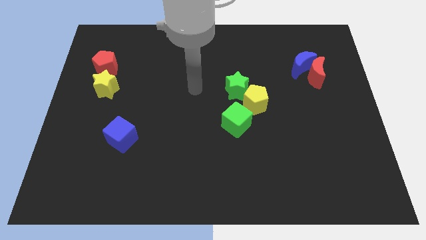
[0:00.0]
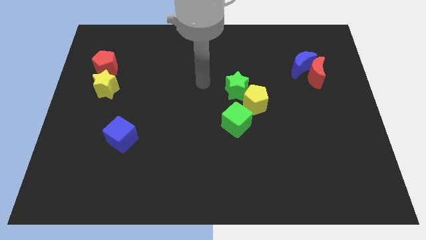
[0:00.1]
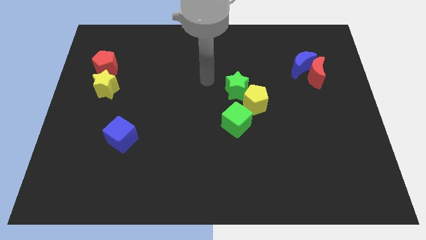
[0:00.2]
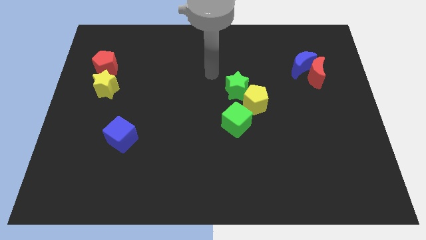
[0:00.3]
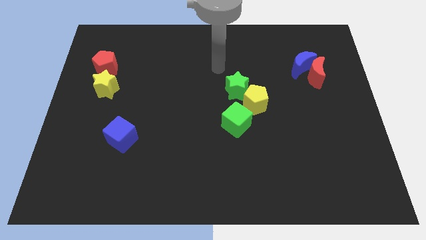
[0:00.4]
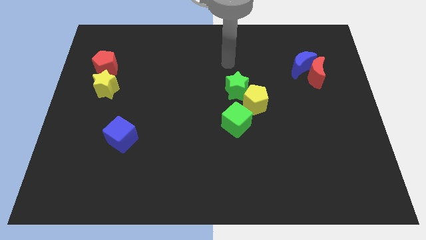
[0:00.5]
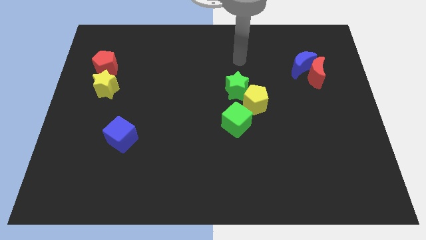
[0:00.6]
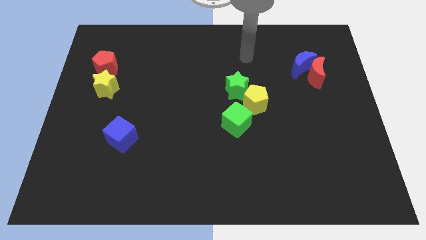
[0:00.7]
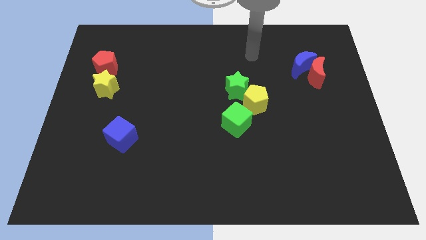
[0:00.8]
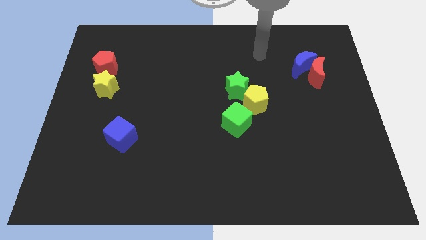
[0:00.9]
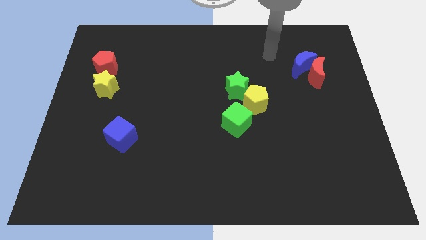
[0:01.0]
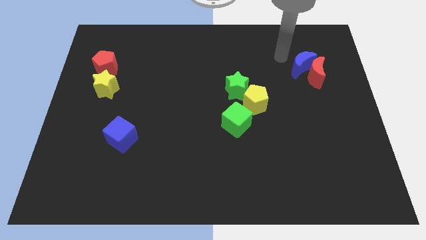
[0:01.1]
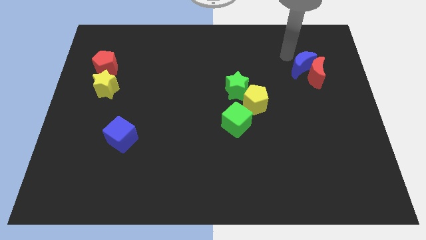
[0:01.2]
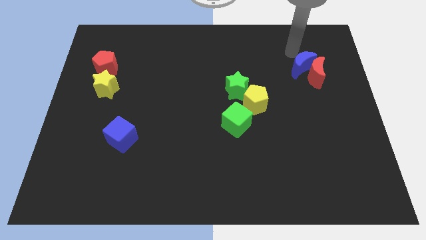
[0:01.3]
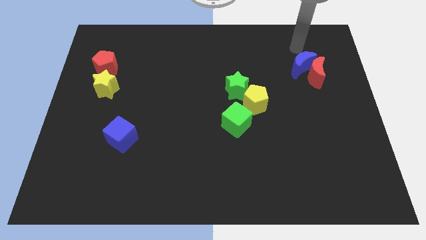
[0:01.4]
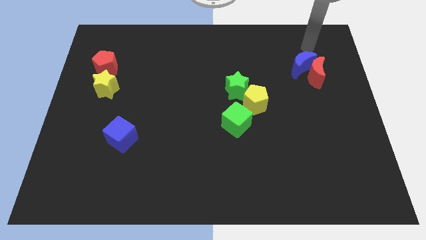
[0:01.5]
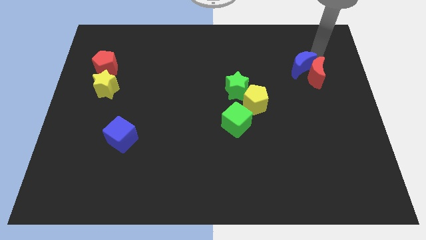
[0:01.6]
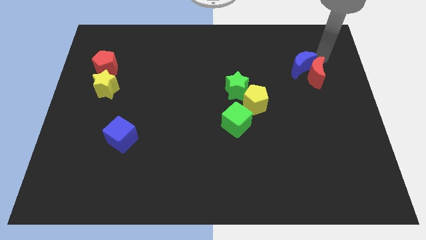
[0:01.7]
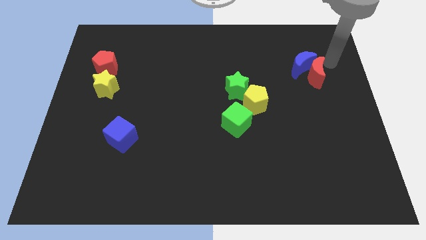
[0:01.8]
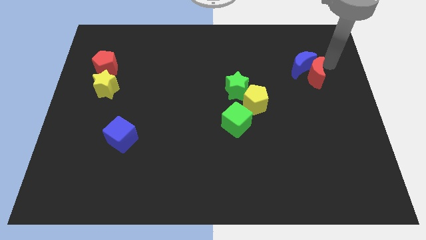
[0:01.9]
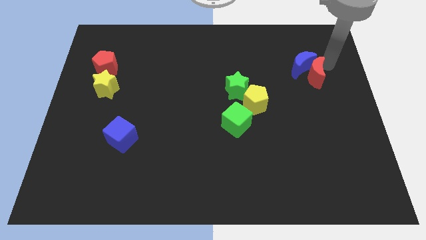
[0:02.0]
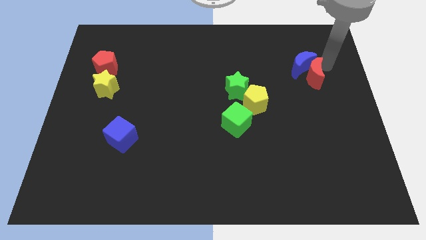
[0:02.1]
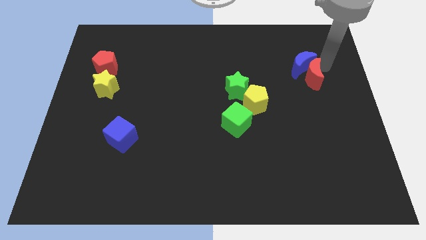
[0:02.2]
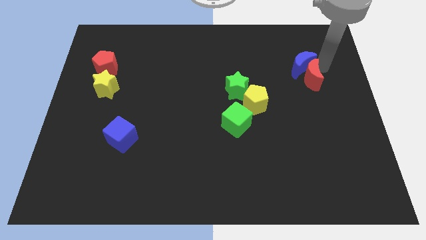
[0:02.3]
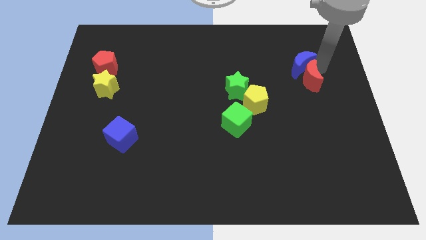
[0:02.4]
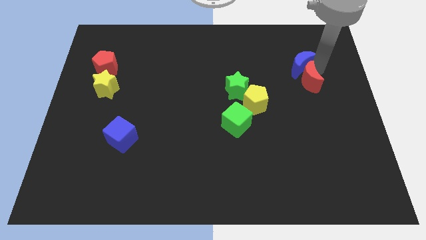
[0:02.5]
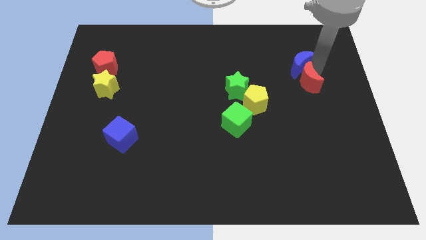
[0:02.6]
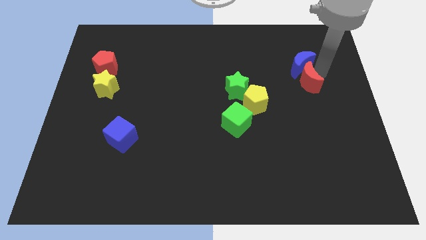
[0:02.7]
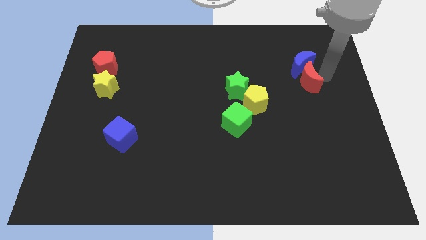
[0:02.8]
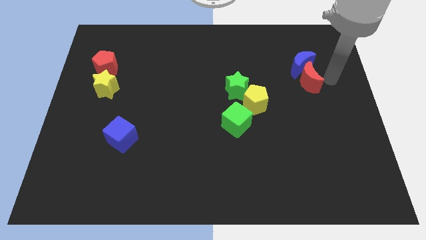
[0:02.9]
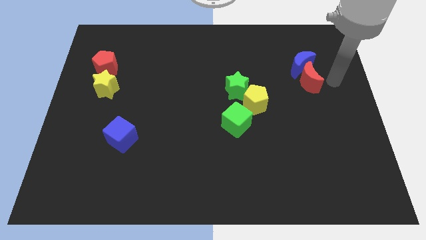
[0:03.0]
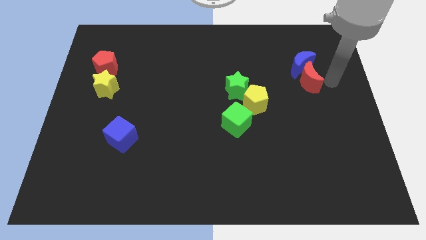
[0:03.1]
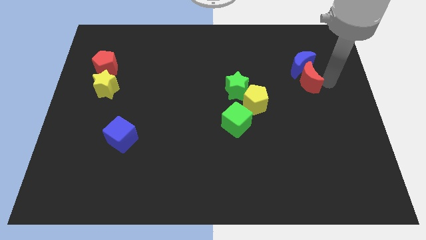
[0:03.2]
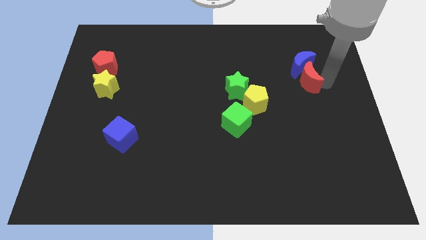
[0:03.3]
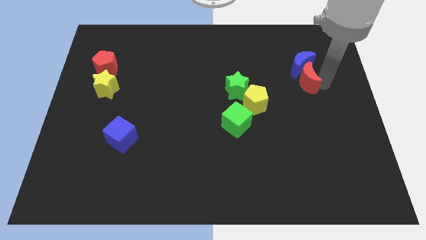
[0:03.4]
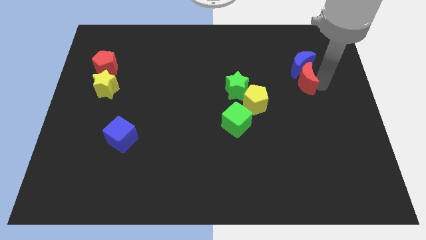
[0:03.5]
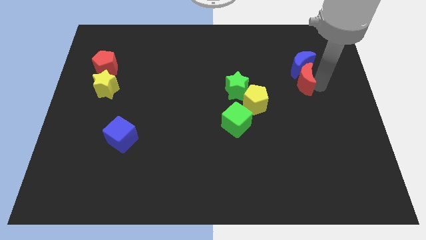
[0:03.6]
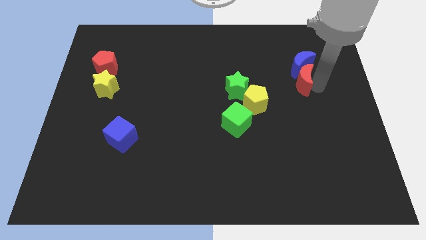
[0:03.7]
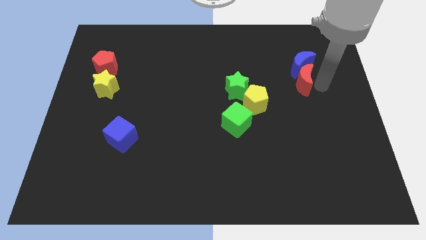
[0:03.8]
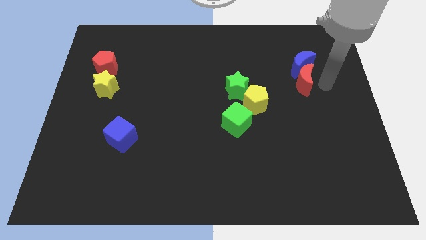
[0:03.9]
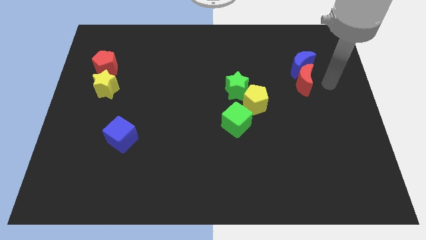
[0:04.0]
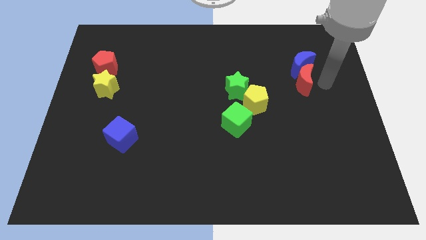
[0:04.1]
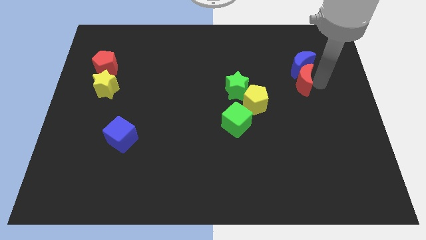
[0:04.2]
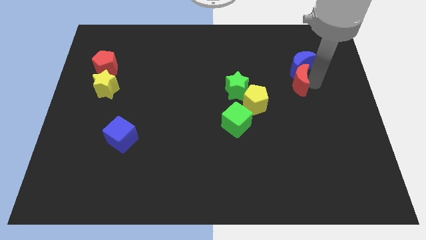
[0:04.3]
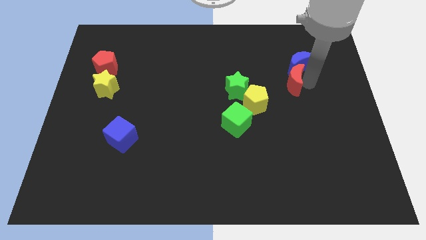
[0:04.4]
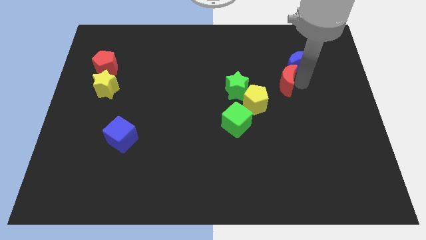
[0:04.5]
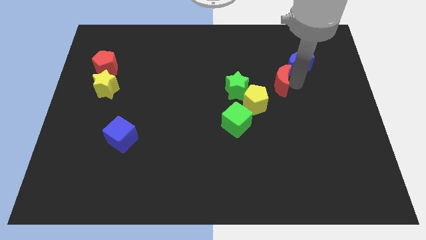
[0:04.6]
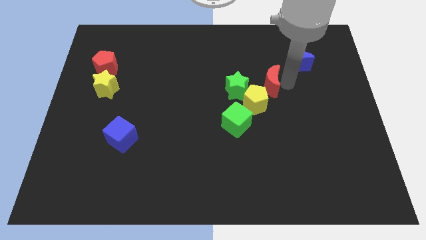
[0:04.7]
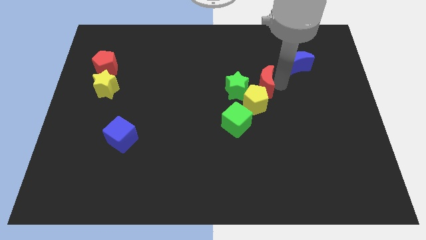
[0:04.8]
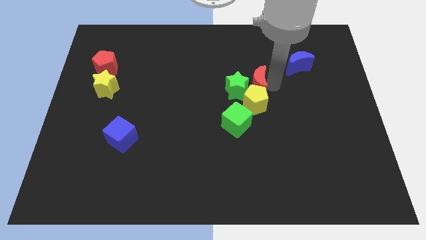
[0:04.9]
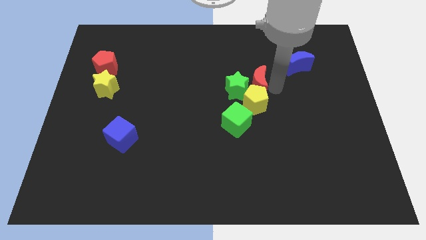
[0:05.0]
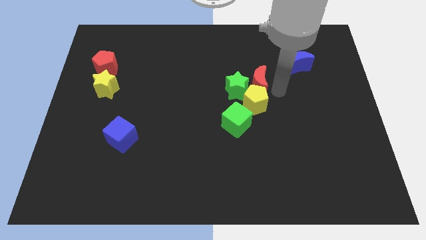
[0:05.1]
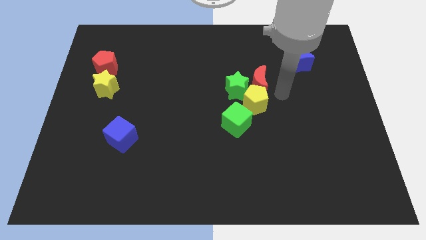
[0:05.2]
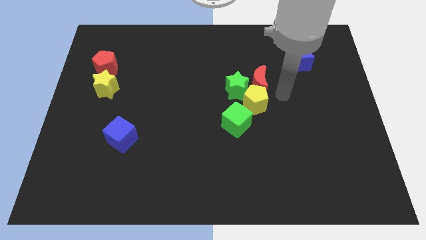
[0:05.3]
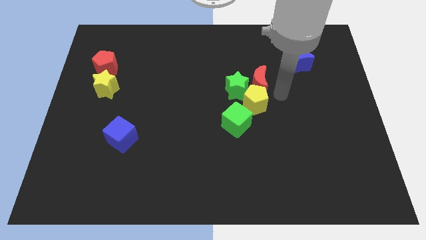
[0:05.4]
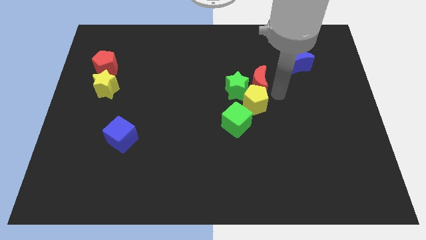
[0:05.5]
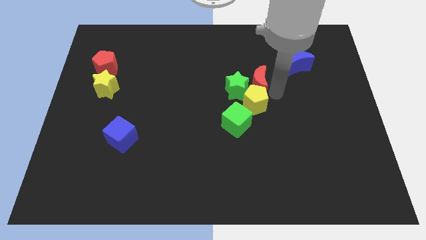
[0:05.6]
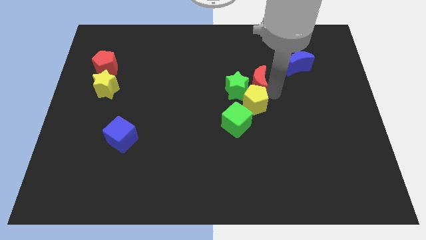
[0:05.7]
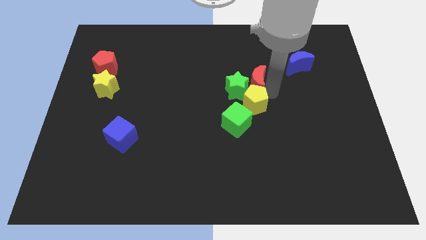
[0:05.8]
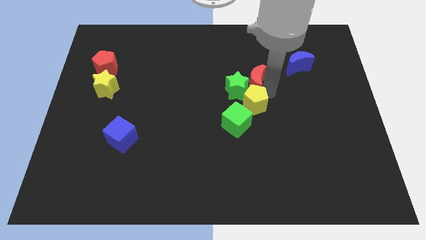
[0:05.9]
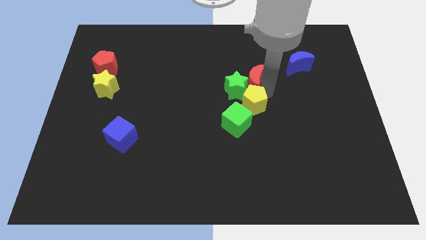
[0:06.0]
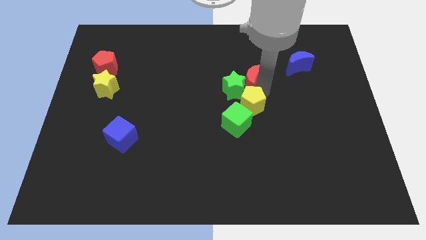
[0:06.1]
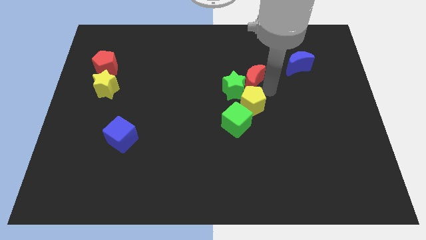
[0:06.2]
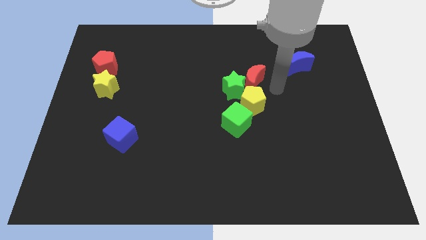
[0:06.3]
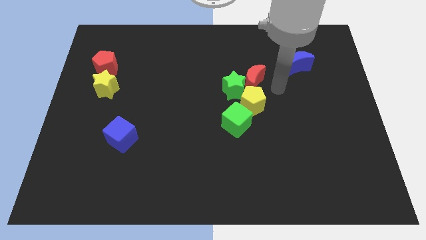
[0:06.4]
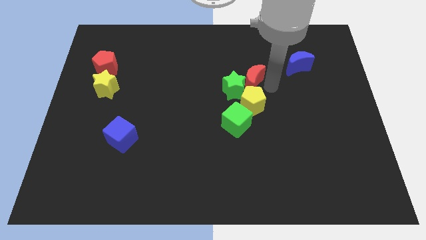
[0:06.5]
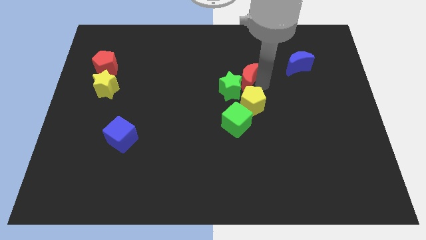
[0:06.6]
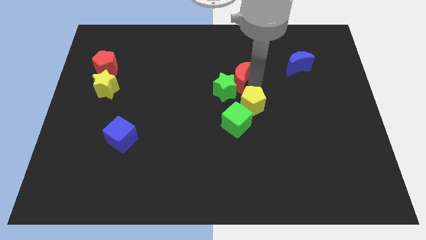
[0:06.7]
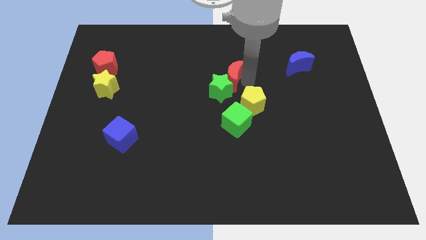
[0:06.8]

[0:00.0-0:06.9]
move the red moon left

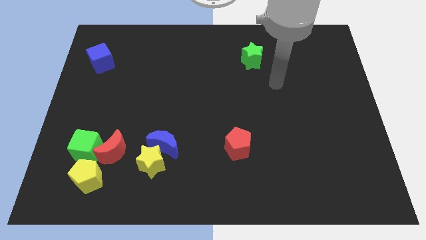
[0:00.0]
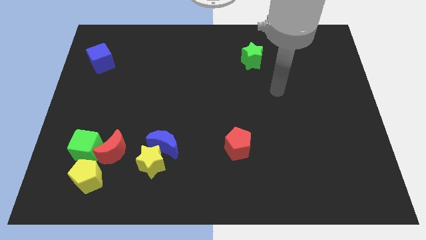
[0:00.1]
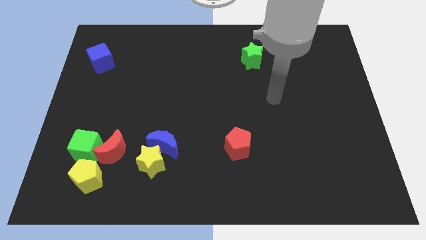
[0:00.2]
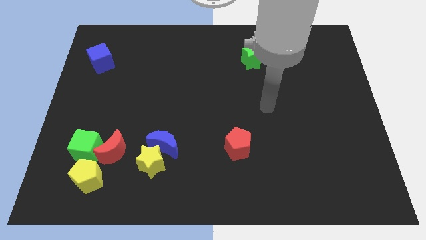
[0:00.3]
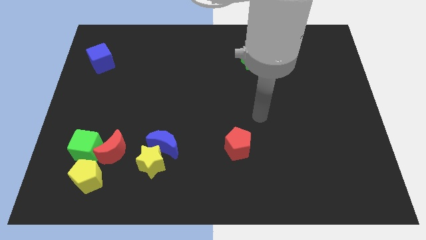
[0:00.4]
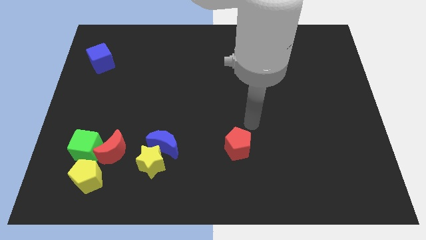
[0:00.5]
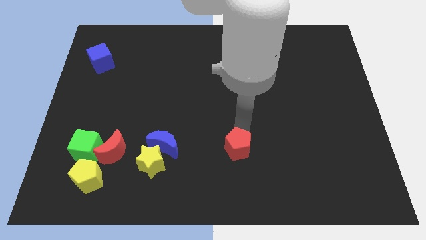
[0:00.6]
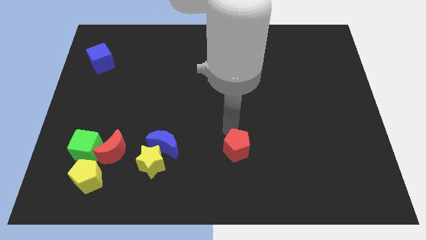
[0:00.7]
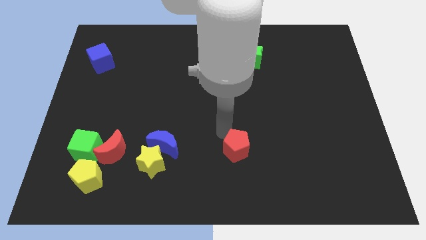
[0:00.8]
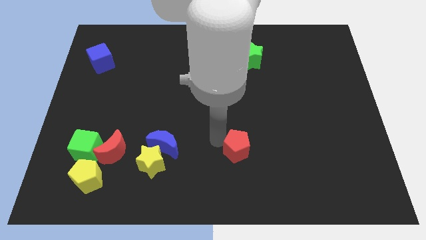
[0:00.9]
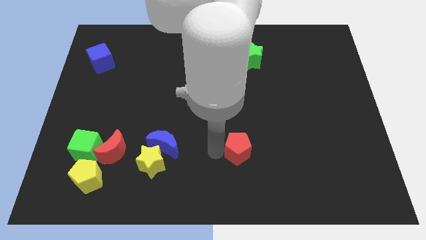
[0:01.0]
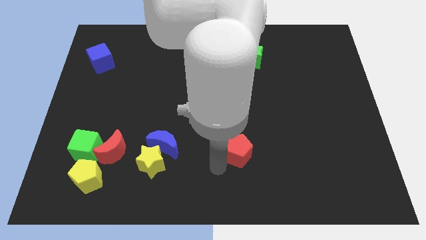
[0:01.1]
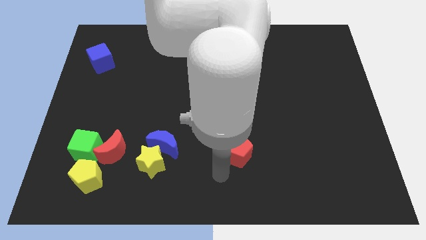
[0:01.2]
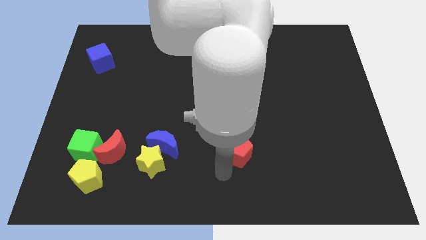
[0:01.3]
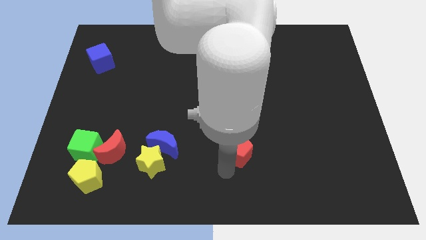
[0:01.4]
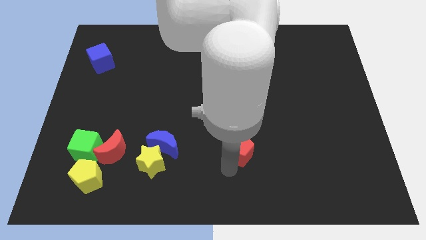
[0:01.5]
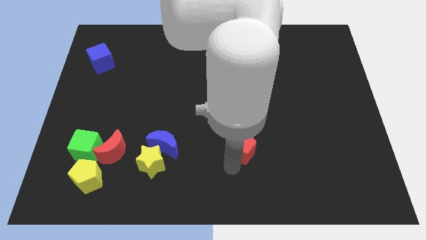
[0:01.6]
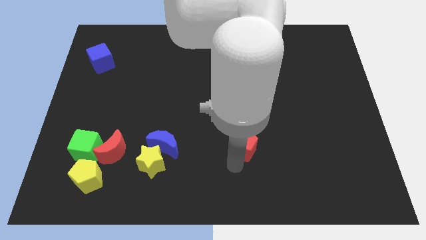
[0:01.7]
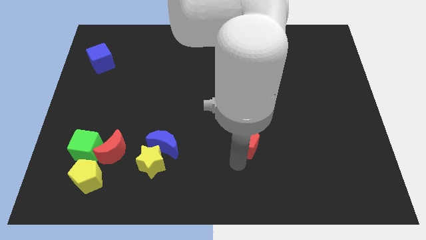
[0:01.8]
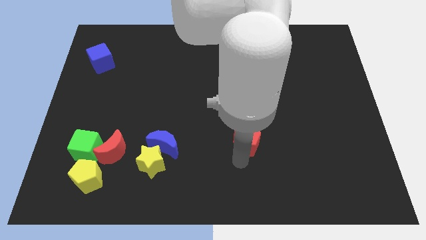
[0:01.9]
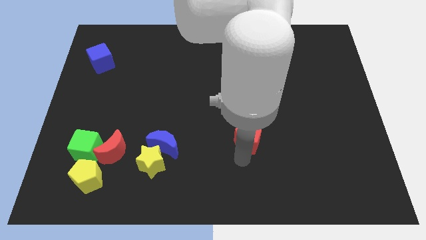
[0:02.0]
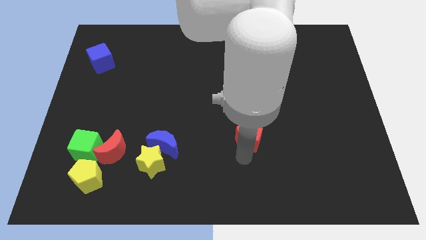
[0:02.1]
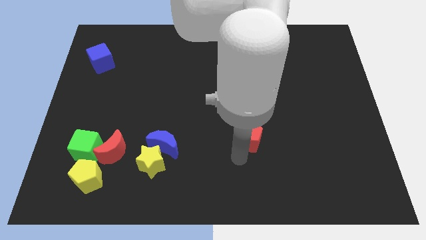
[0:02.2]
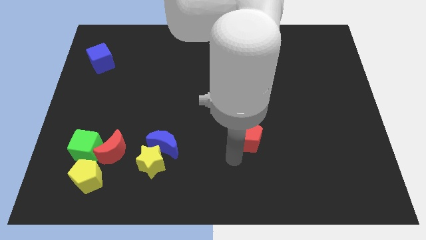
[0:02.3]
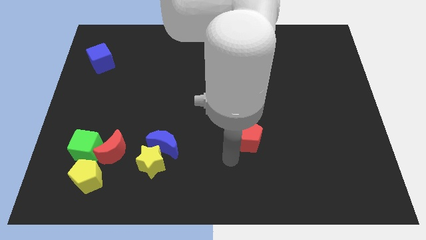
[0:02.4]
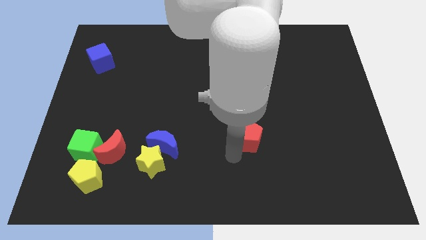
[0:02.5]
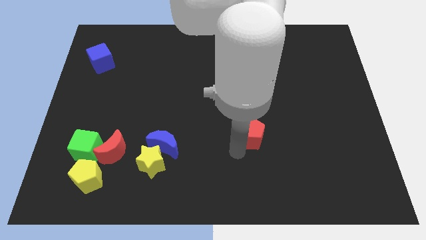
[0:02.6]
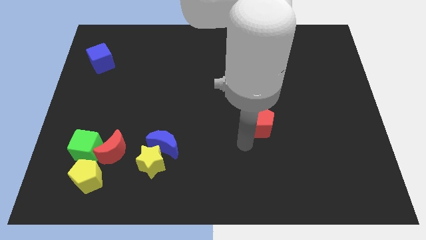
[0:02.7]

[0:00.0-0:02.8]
slightly slide the red pentagon upwards and to the right diagonally
